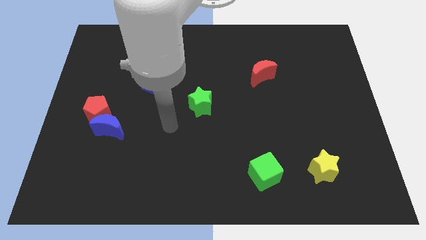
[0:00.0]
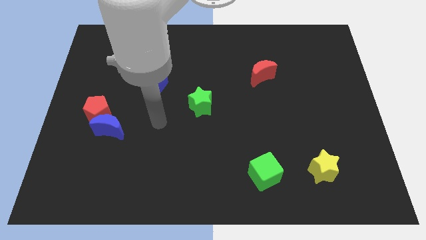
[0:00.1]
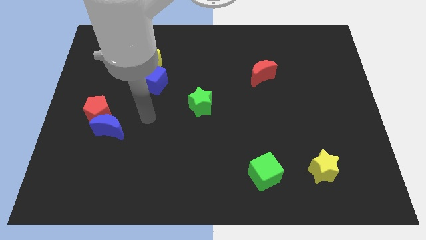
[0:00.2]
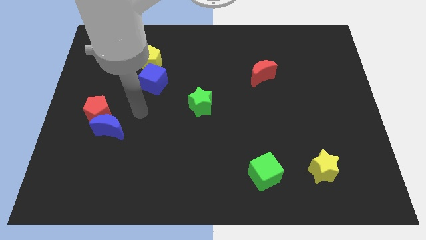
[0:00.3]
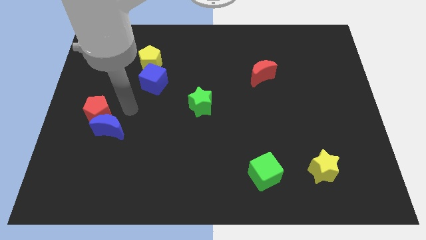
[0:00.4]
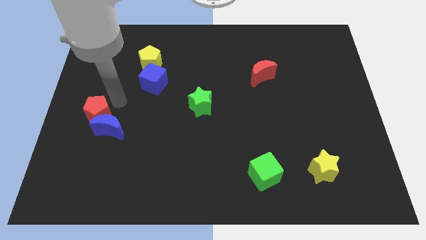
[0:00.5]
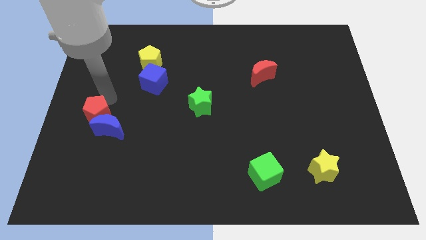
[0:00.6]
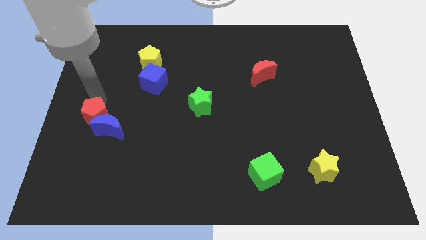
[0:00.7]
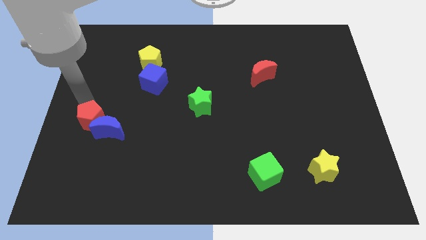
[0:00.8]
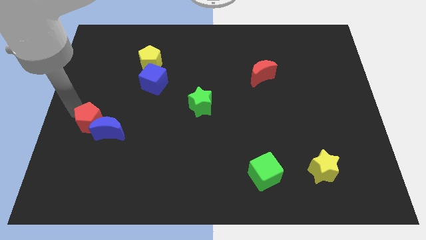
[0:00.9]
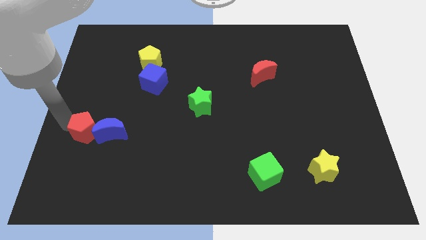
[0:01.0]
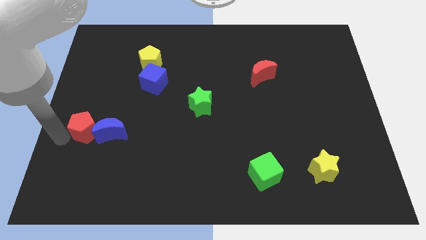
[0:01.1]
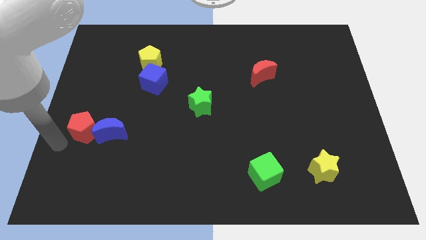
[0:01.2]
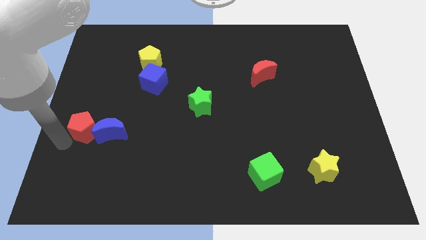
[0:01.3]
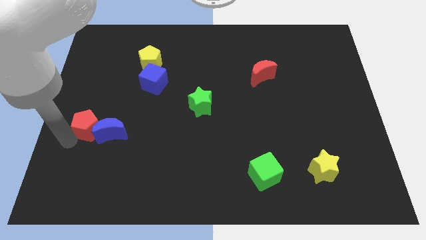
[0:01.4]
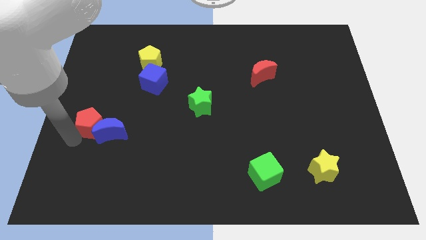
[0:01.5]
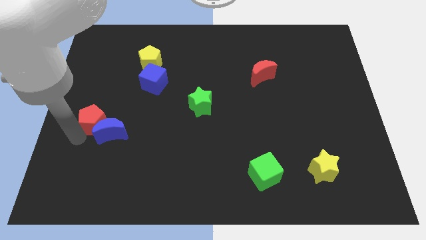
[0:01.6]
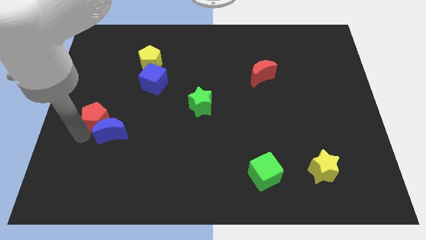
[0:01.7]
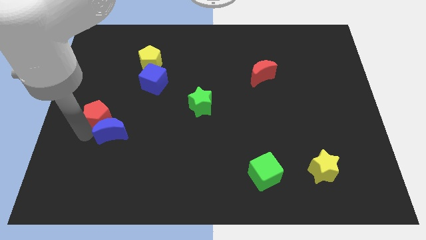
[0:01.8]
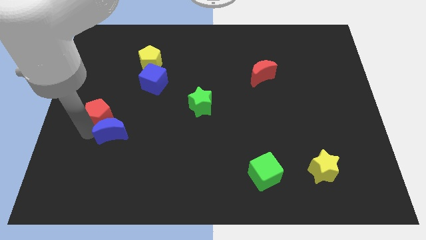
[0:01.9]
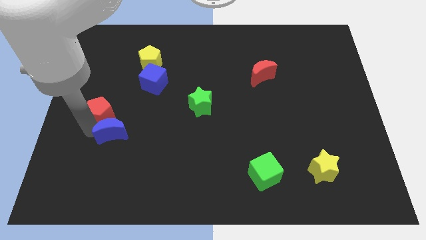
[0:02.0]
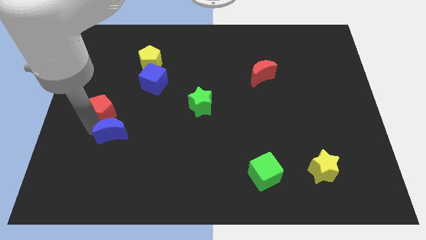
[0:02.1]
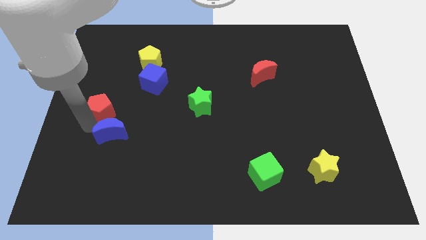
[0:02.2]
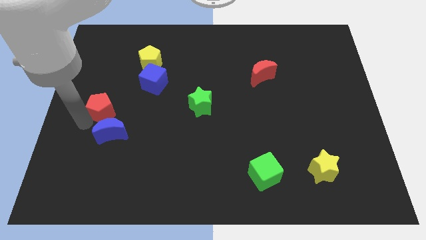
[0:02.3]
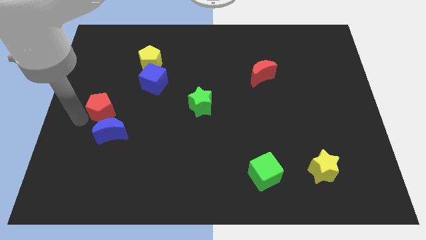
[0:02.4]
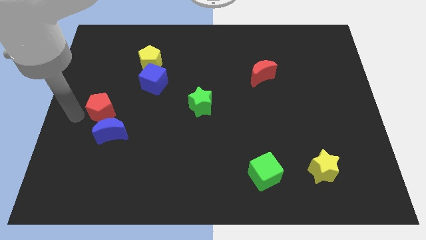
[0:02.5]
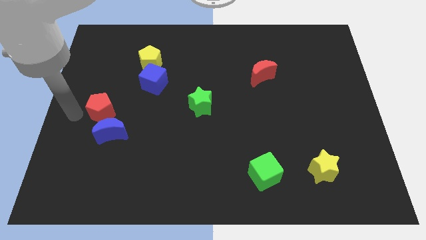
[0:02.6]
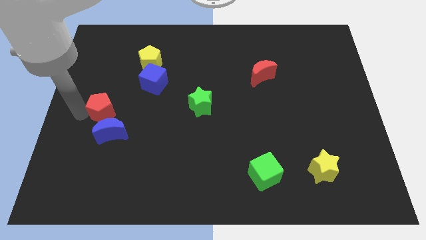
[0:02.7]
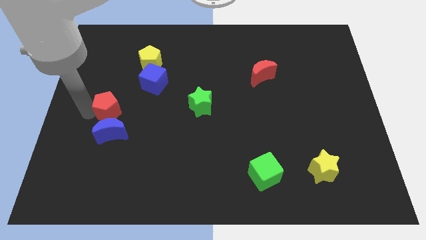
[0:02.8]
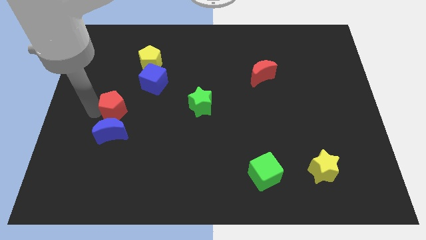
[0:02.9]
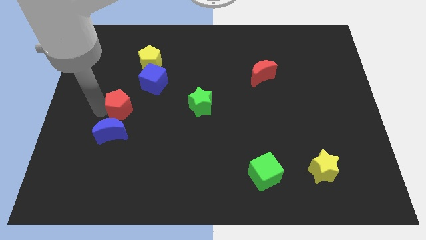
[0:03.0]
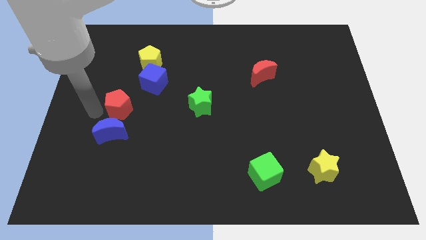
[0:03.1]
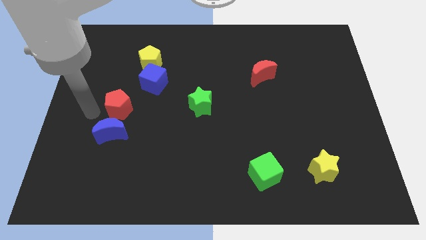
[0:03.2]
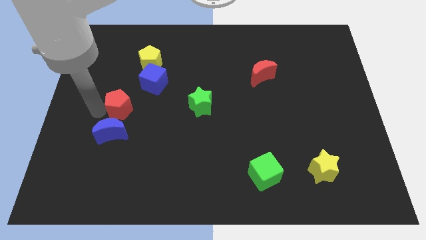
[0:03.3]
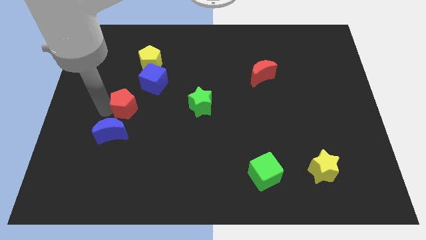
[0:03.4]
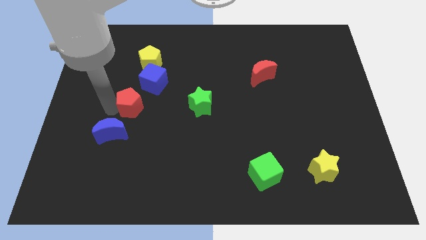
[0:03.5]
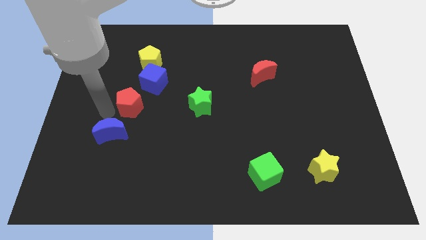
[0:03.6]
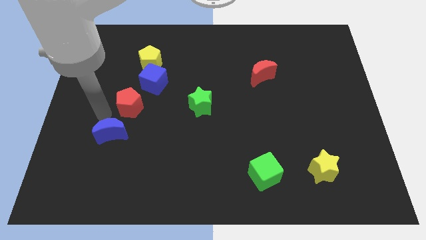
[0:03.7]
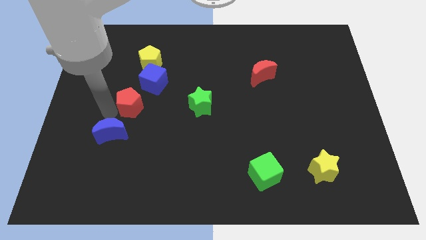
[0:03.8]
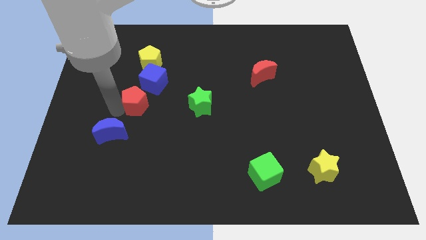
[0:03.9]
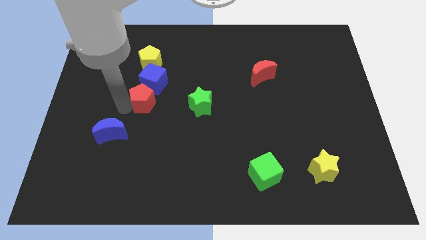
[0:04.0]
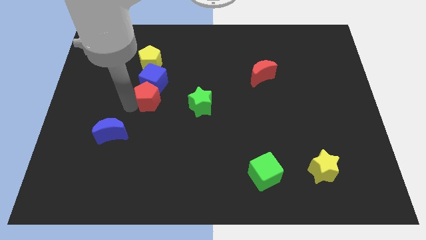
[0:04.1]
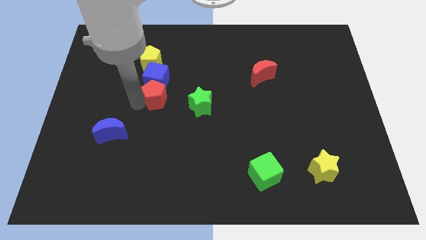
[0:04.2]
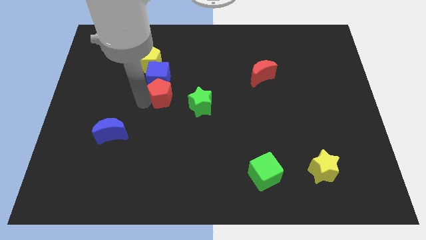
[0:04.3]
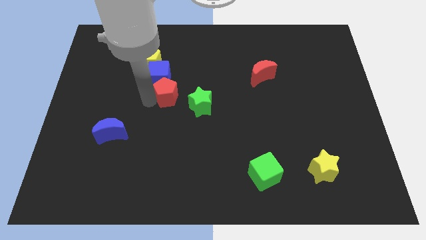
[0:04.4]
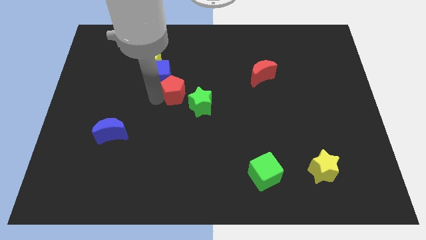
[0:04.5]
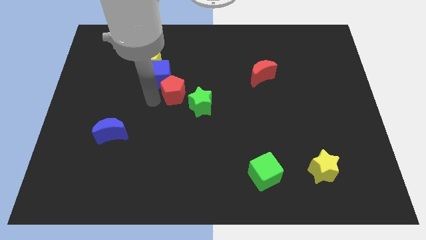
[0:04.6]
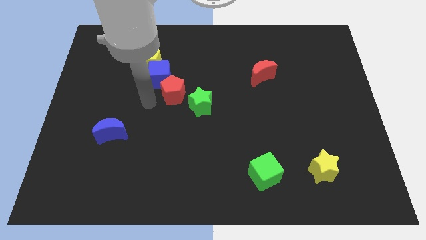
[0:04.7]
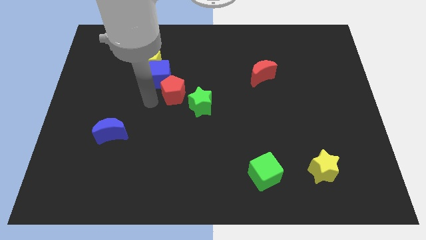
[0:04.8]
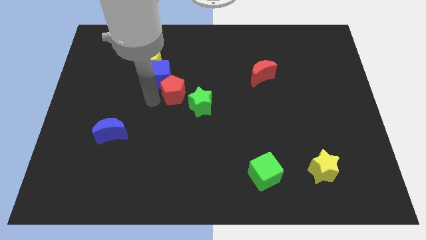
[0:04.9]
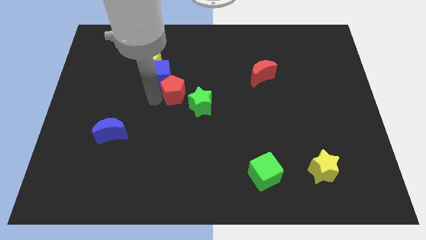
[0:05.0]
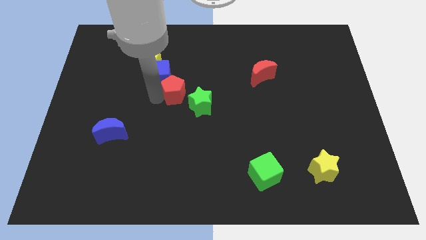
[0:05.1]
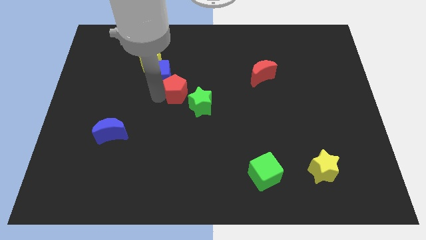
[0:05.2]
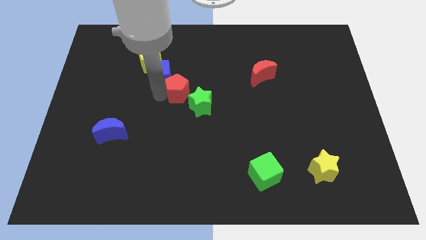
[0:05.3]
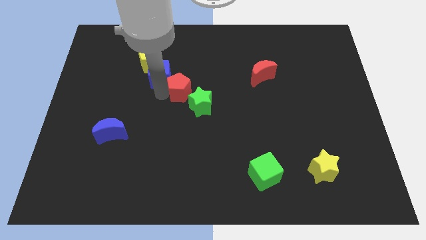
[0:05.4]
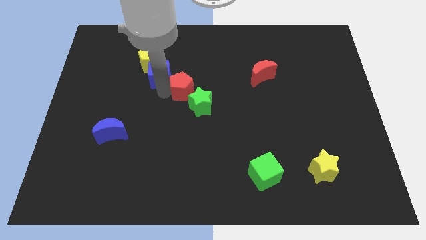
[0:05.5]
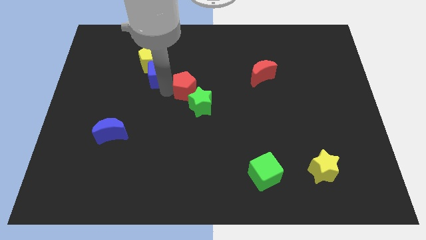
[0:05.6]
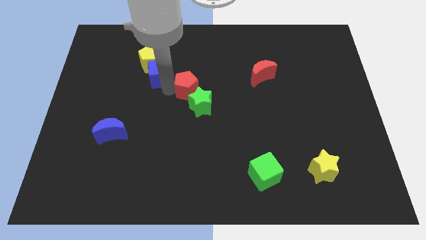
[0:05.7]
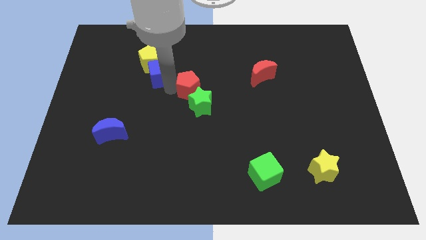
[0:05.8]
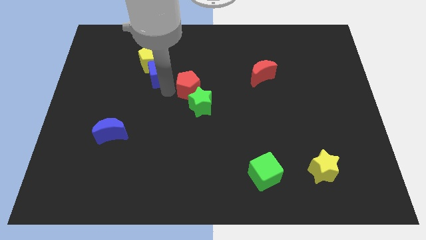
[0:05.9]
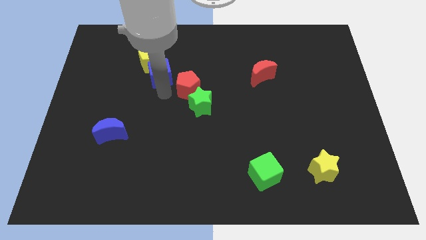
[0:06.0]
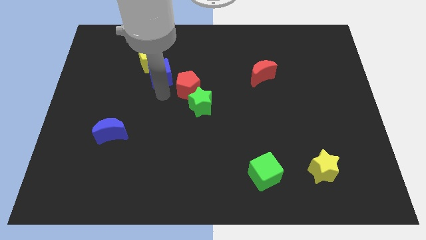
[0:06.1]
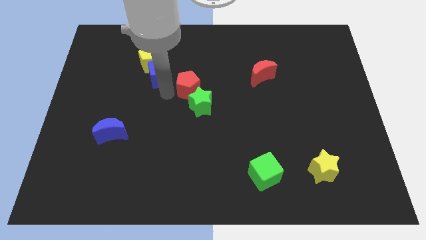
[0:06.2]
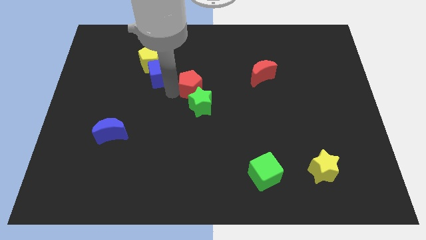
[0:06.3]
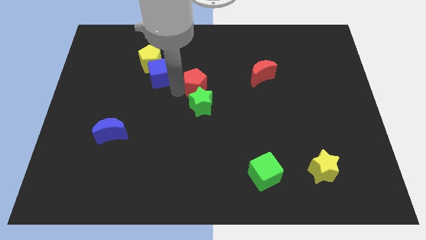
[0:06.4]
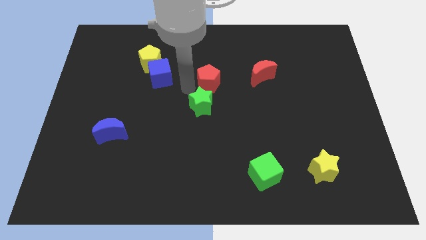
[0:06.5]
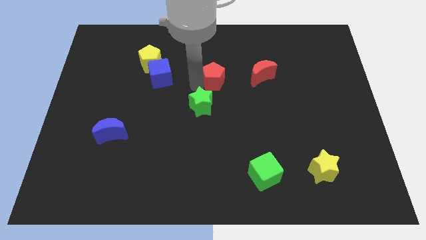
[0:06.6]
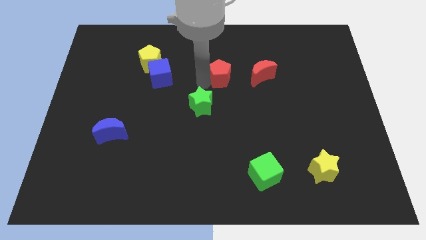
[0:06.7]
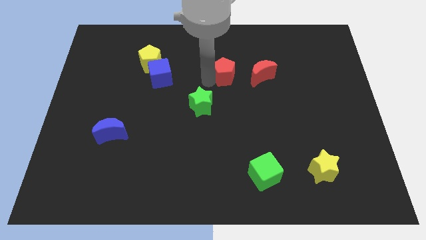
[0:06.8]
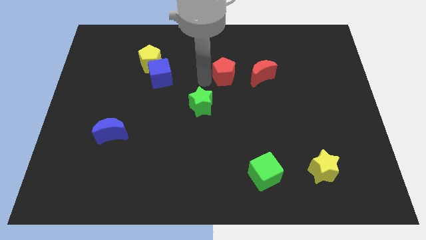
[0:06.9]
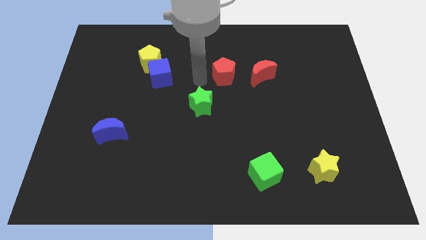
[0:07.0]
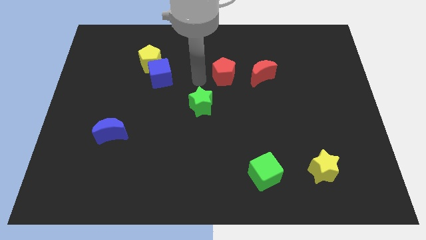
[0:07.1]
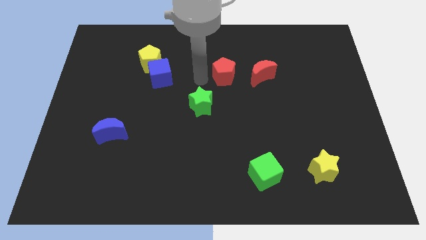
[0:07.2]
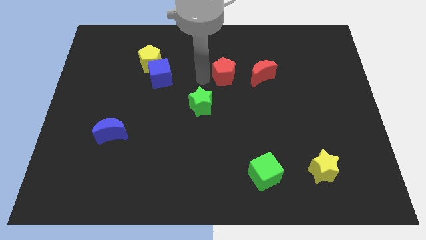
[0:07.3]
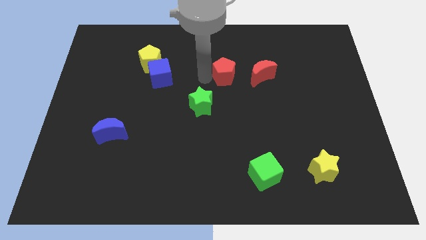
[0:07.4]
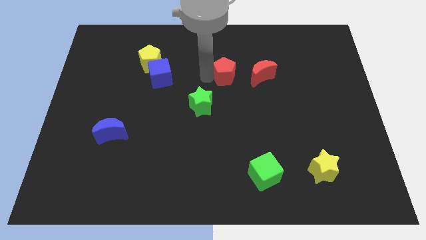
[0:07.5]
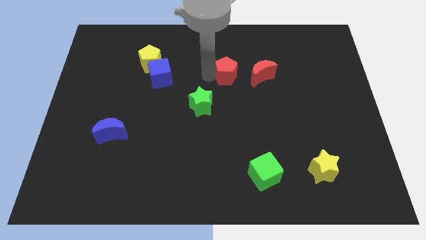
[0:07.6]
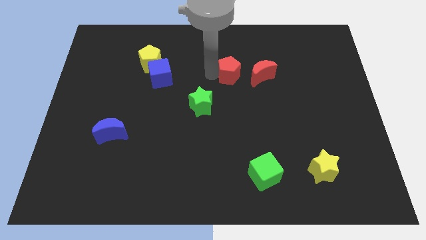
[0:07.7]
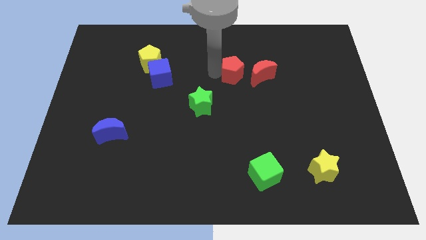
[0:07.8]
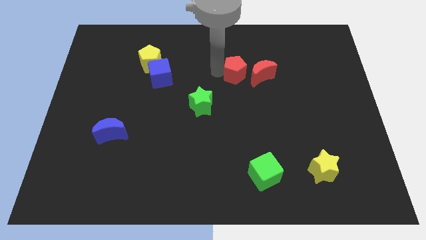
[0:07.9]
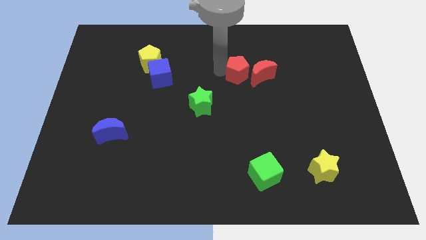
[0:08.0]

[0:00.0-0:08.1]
push the red pentagon towards the red moon
